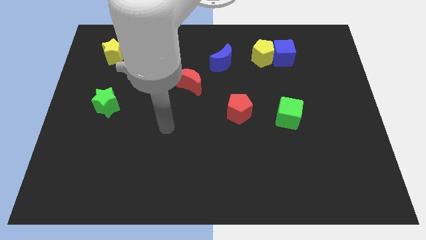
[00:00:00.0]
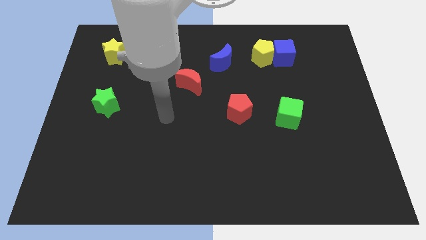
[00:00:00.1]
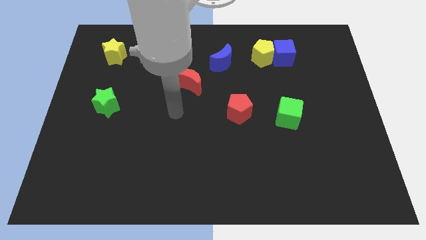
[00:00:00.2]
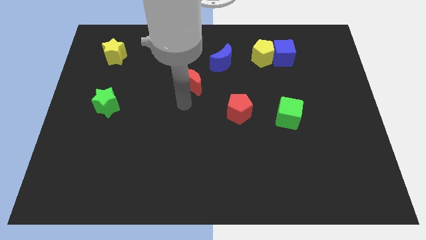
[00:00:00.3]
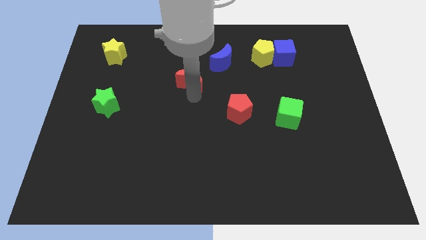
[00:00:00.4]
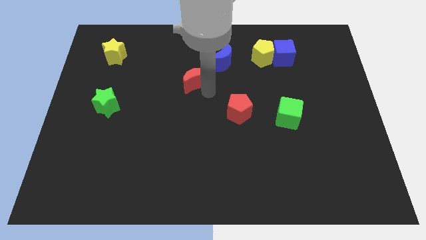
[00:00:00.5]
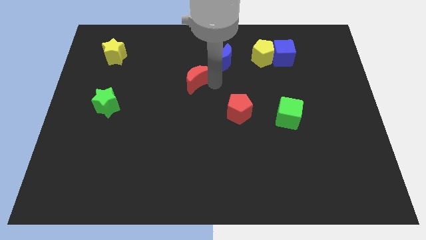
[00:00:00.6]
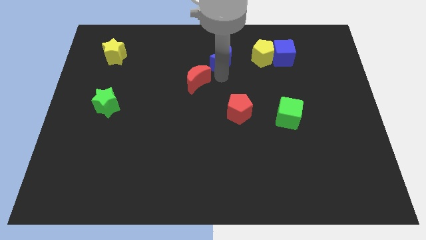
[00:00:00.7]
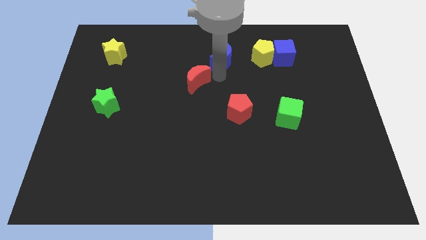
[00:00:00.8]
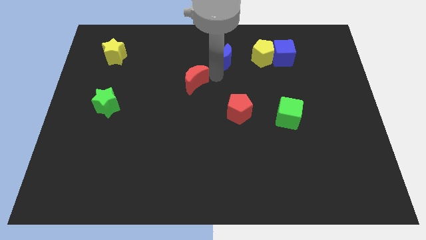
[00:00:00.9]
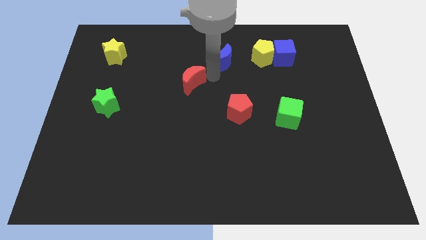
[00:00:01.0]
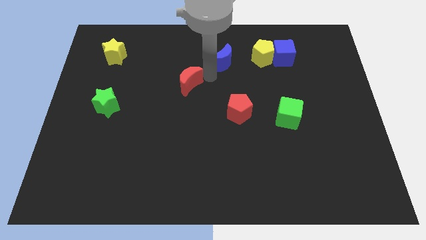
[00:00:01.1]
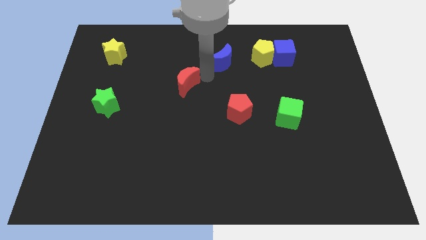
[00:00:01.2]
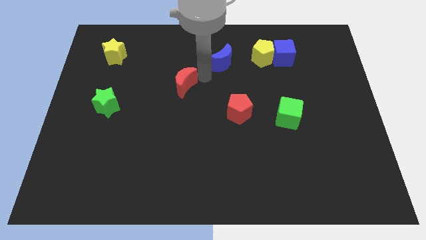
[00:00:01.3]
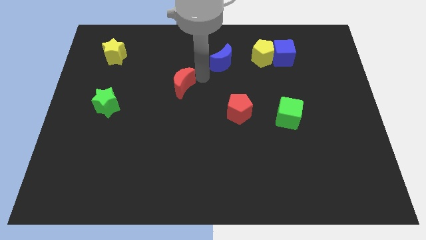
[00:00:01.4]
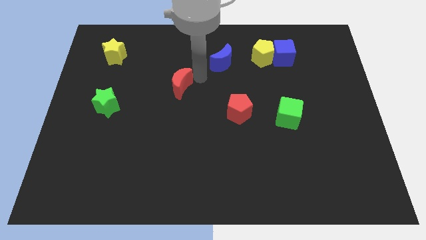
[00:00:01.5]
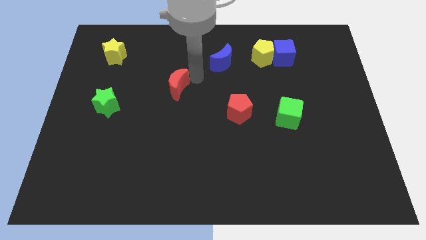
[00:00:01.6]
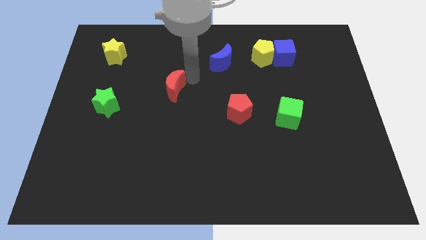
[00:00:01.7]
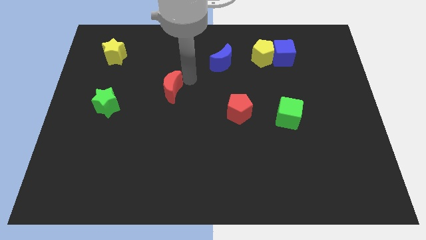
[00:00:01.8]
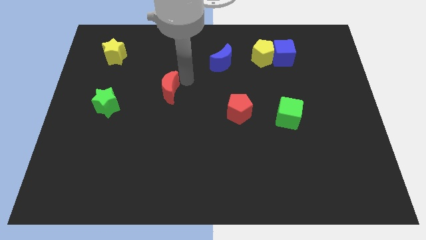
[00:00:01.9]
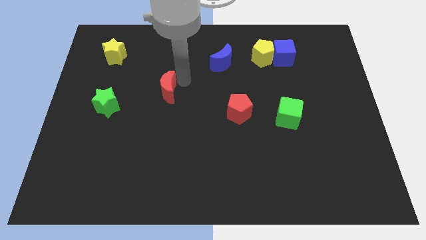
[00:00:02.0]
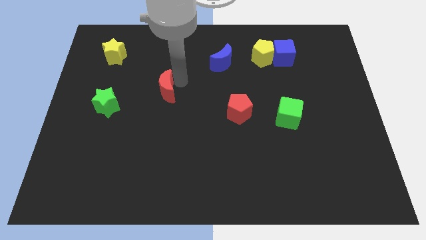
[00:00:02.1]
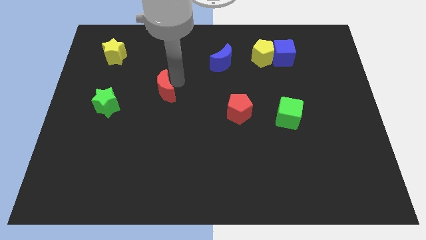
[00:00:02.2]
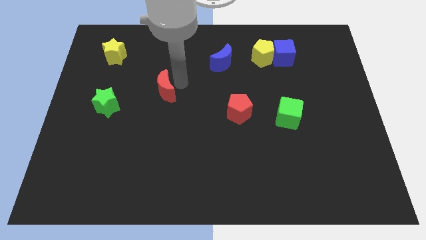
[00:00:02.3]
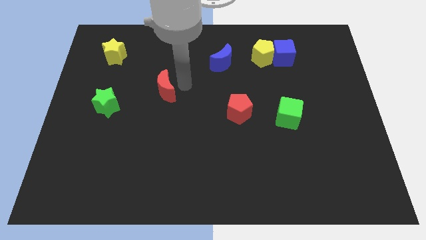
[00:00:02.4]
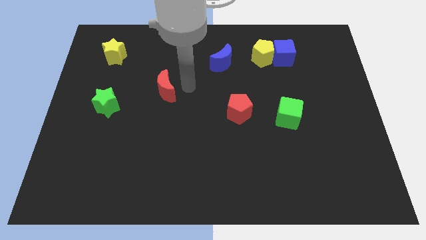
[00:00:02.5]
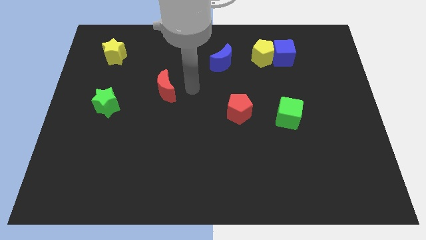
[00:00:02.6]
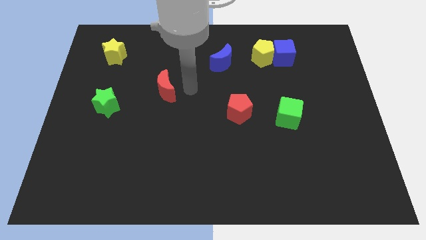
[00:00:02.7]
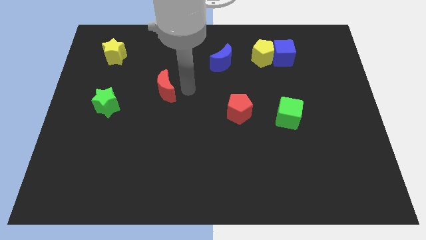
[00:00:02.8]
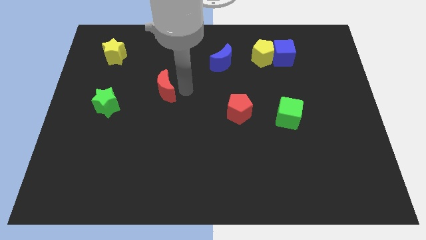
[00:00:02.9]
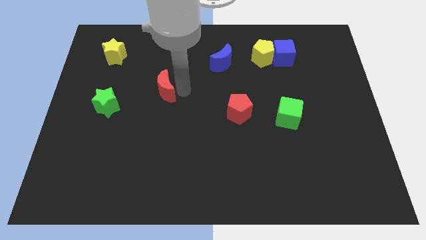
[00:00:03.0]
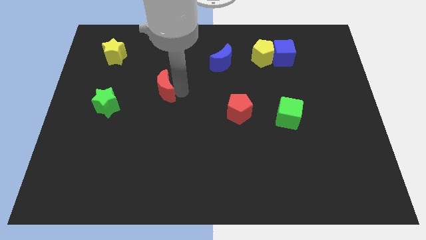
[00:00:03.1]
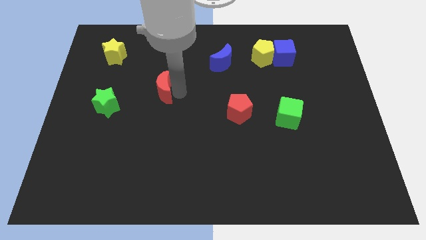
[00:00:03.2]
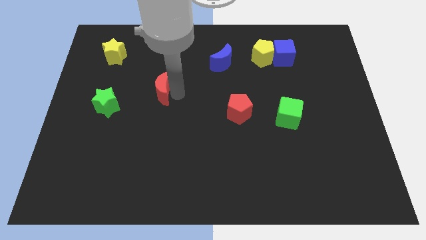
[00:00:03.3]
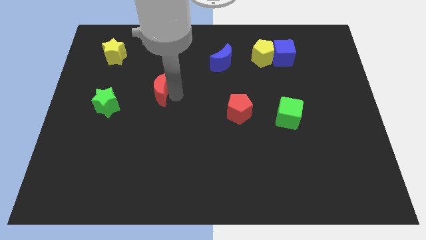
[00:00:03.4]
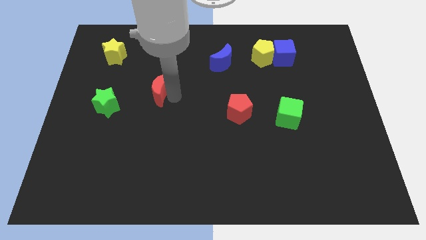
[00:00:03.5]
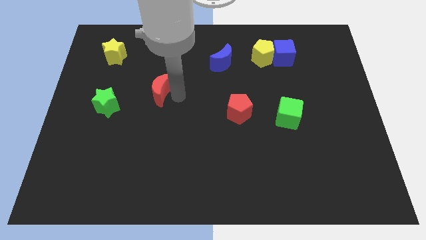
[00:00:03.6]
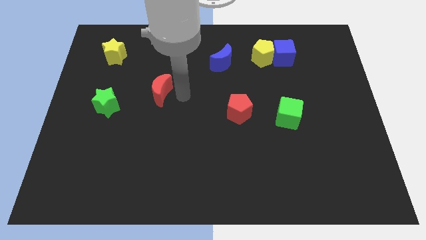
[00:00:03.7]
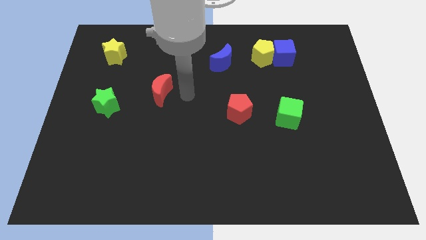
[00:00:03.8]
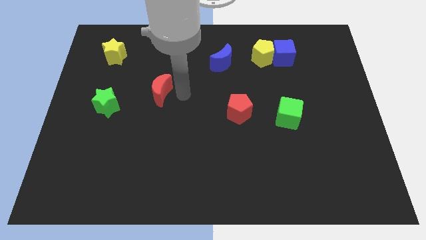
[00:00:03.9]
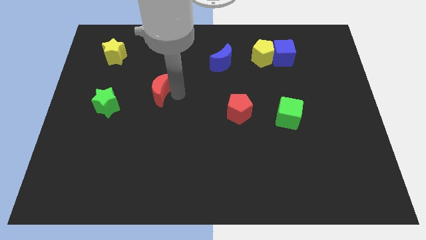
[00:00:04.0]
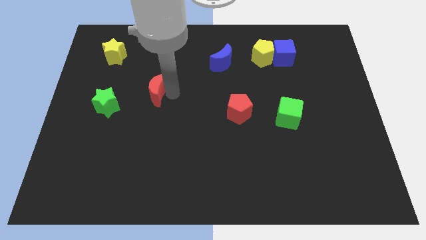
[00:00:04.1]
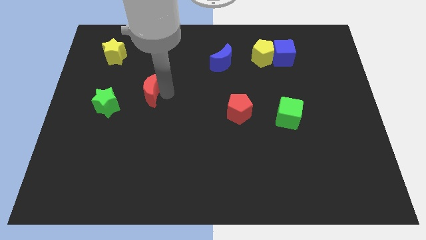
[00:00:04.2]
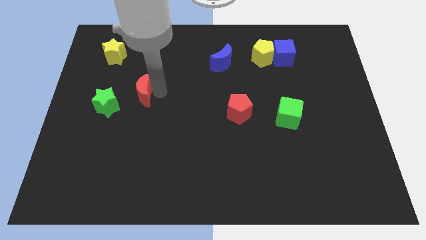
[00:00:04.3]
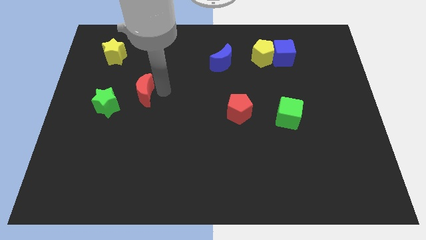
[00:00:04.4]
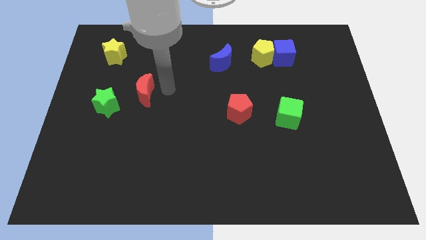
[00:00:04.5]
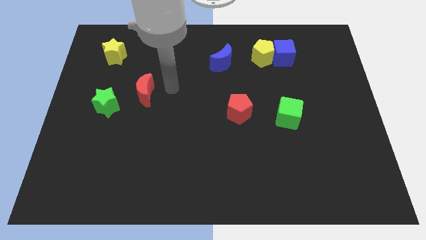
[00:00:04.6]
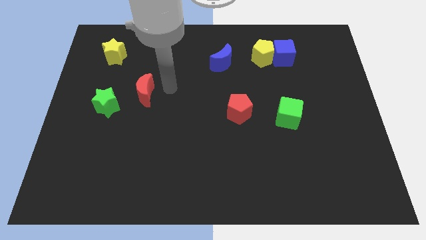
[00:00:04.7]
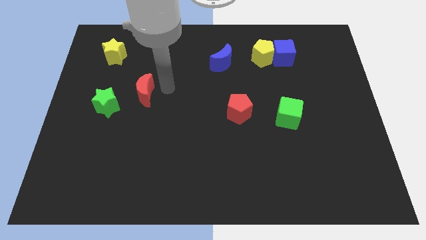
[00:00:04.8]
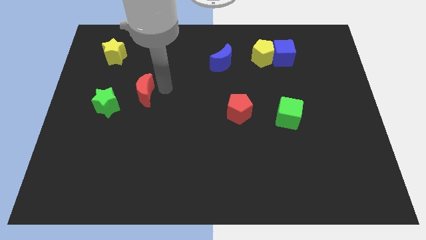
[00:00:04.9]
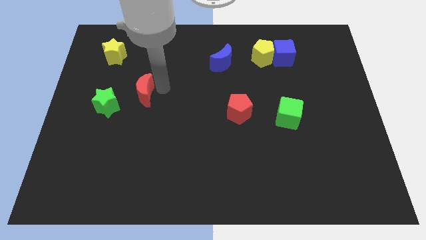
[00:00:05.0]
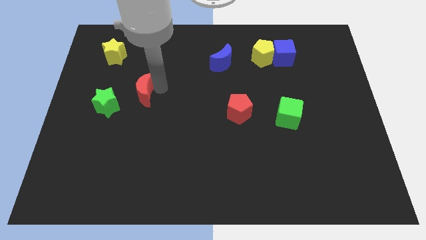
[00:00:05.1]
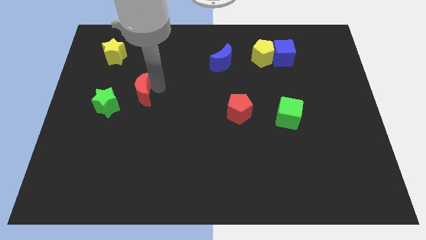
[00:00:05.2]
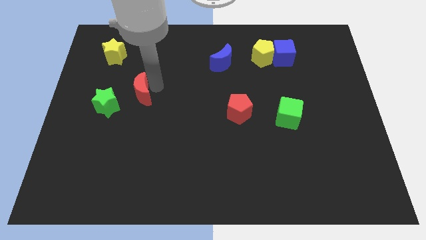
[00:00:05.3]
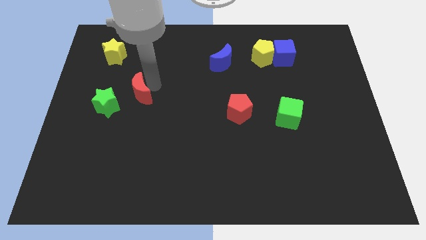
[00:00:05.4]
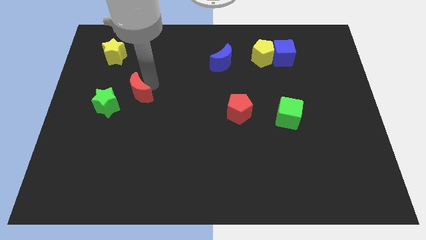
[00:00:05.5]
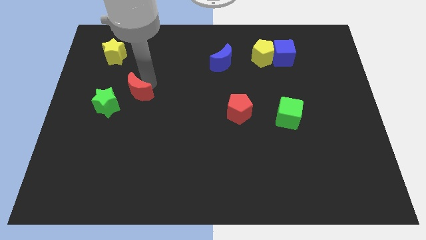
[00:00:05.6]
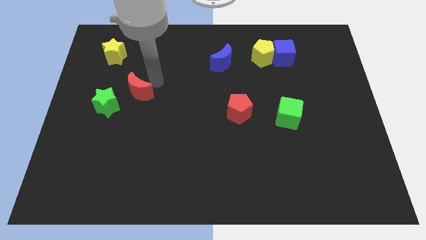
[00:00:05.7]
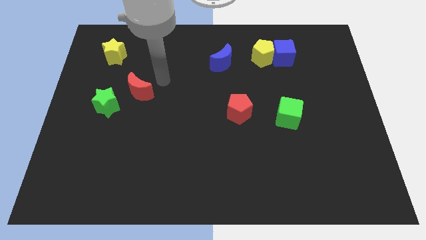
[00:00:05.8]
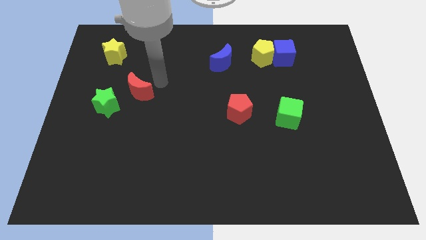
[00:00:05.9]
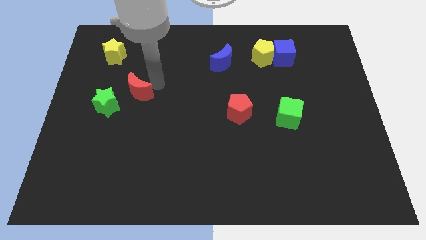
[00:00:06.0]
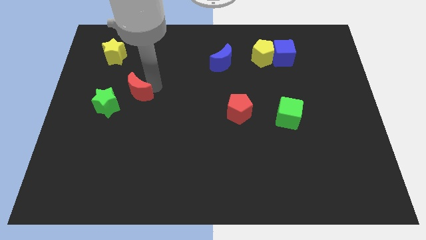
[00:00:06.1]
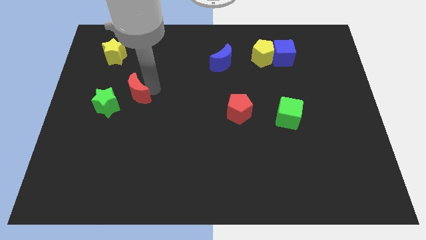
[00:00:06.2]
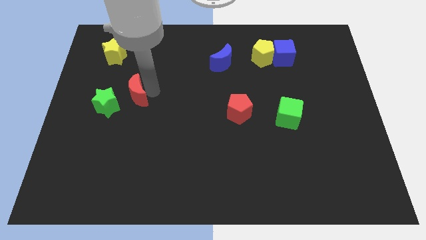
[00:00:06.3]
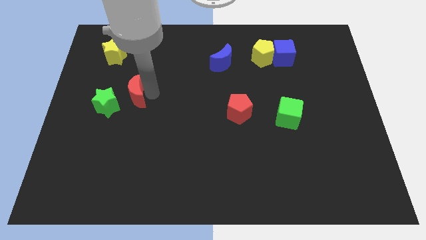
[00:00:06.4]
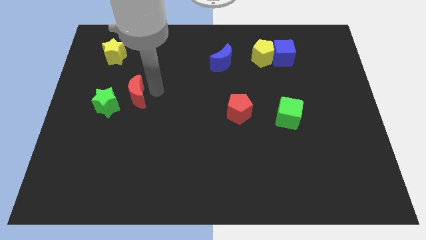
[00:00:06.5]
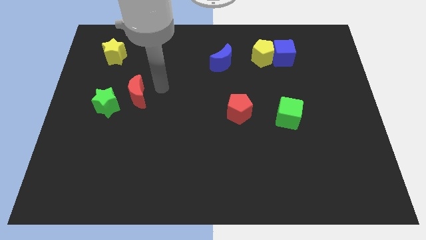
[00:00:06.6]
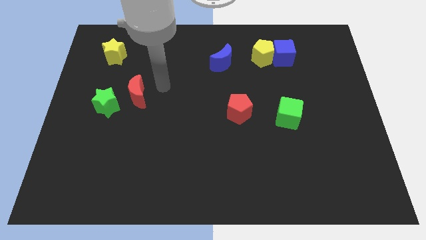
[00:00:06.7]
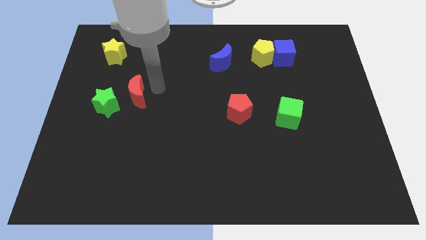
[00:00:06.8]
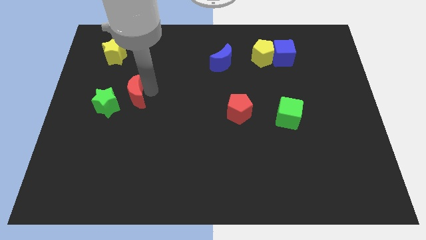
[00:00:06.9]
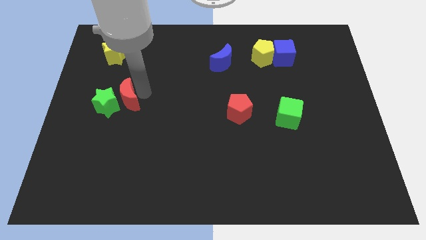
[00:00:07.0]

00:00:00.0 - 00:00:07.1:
move the red moon to the green star
